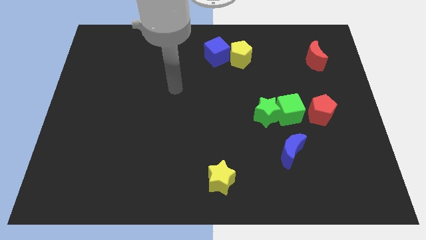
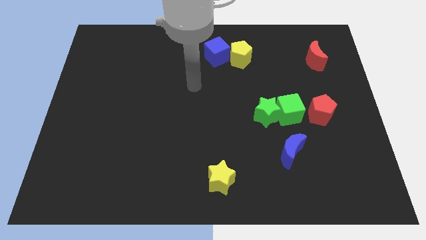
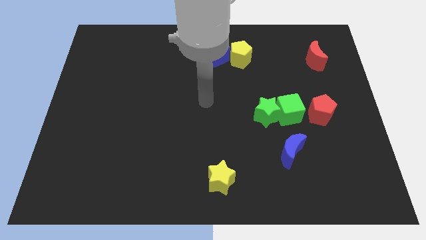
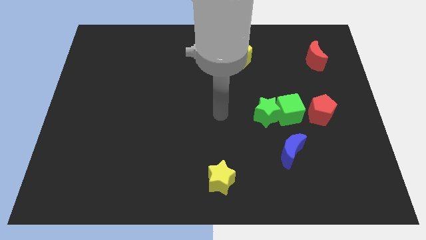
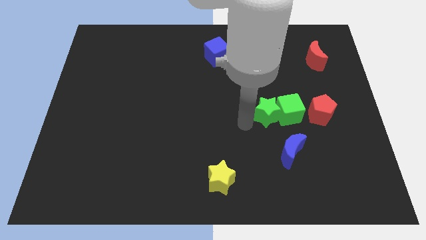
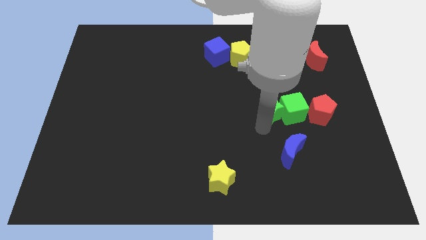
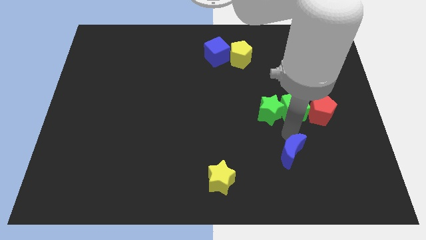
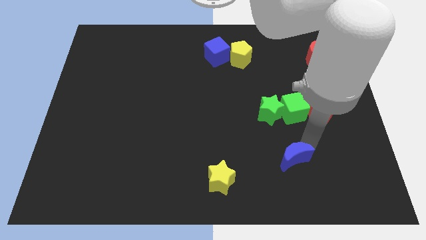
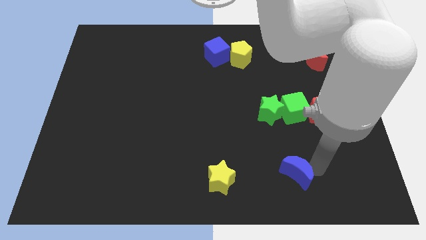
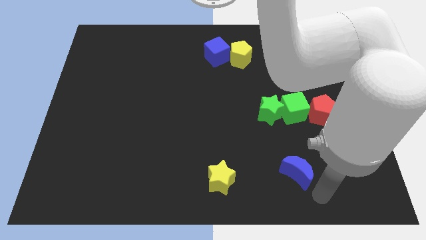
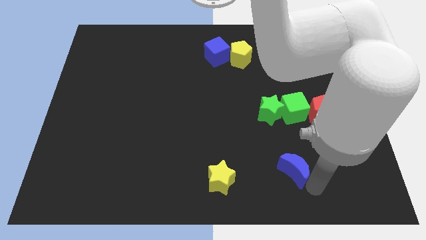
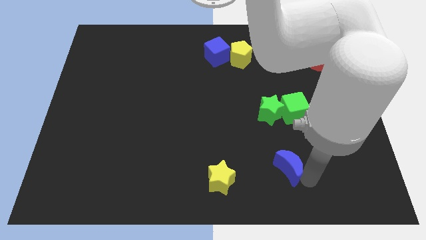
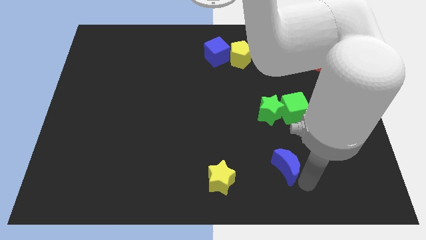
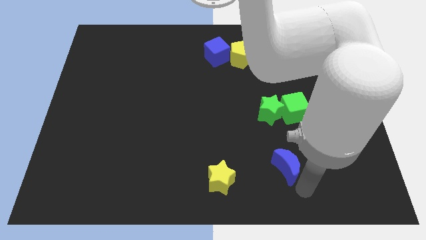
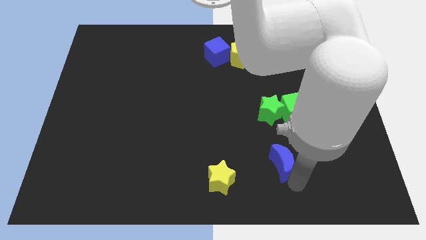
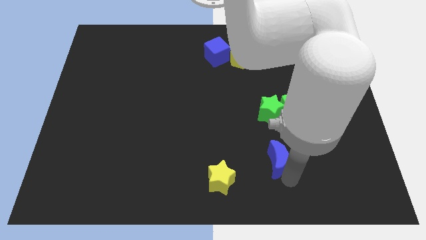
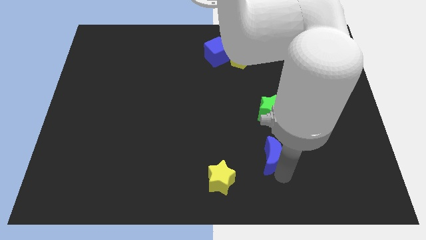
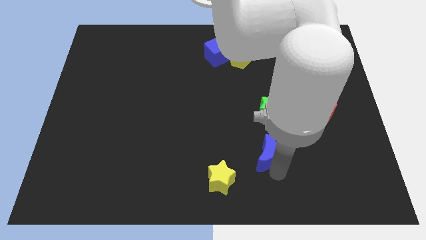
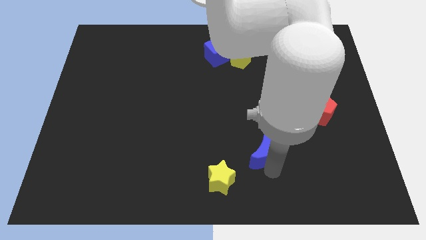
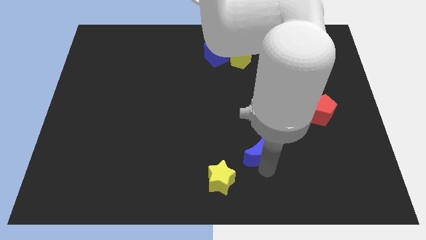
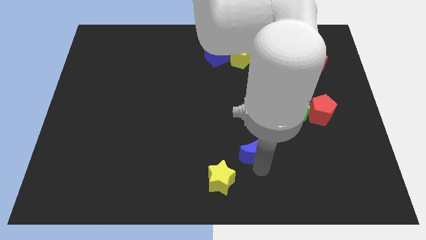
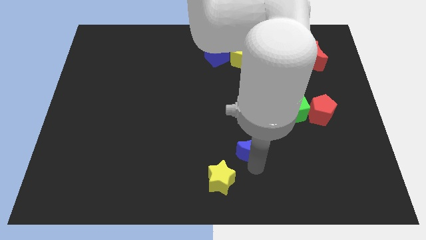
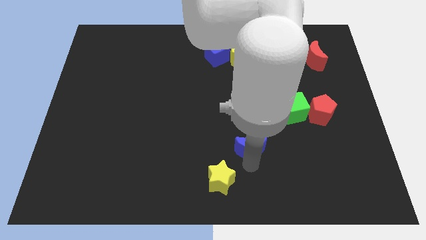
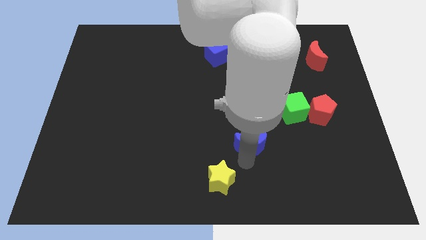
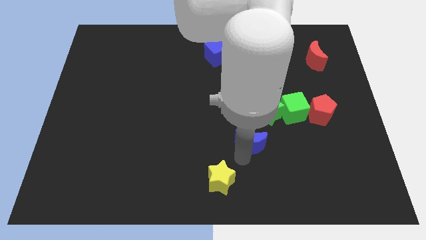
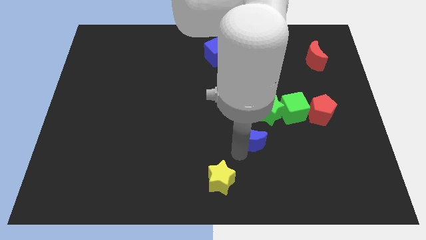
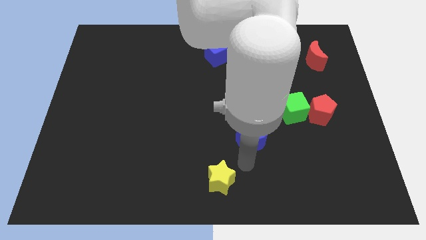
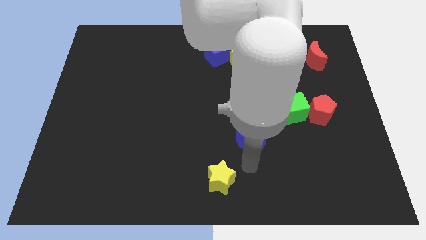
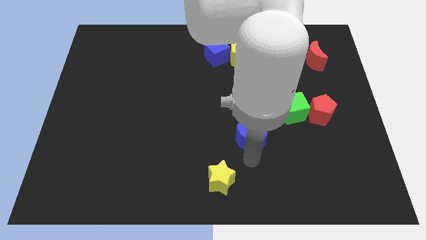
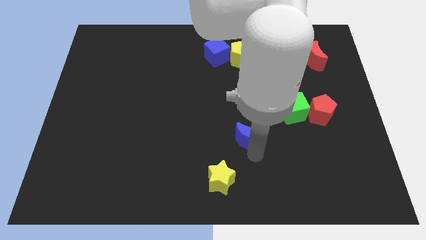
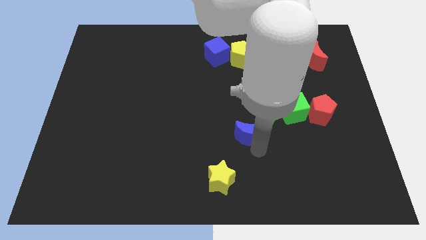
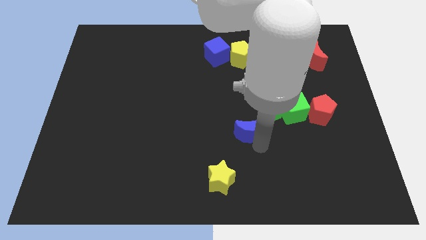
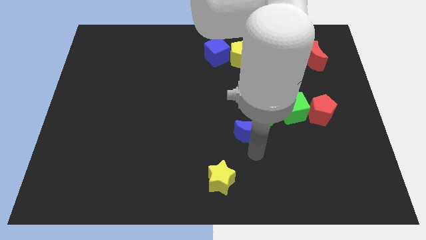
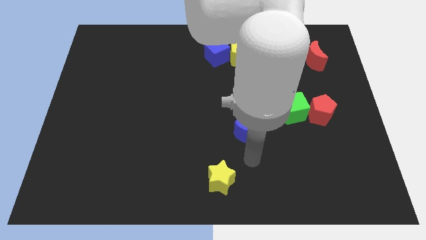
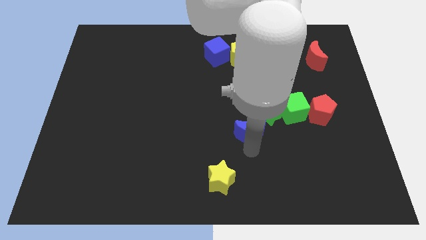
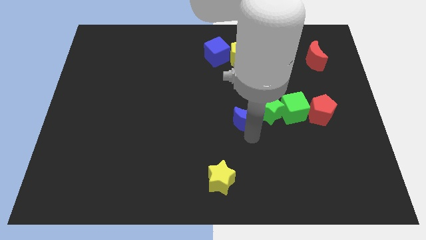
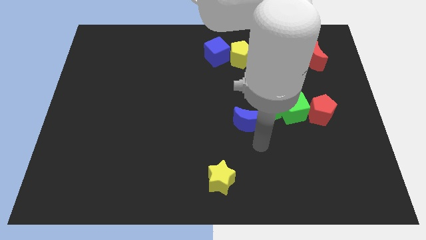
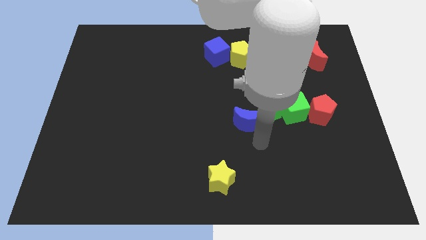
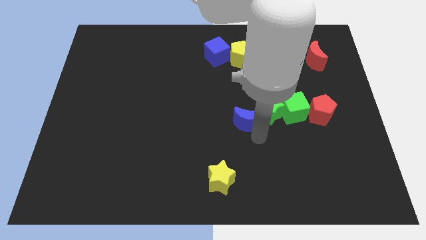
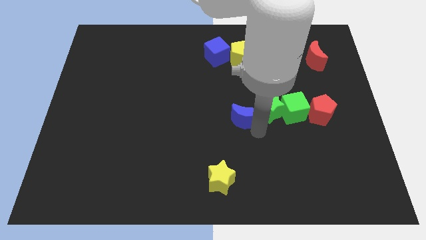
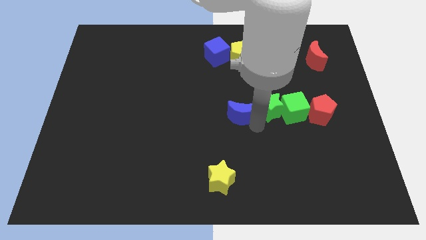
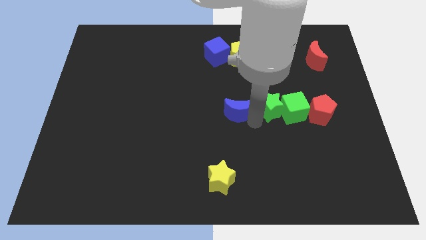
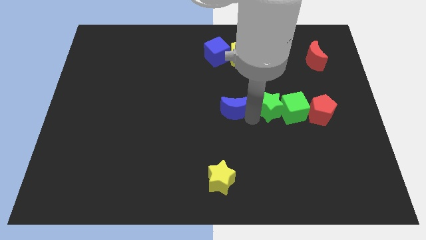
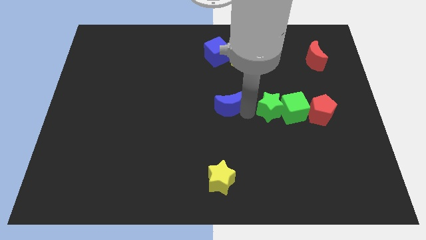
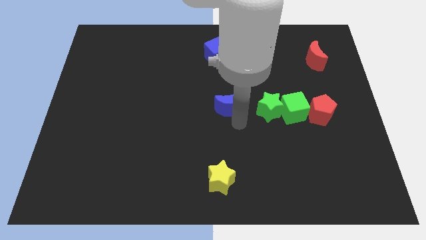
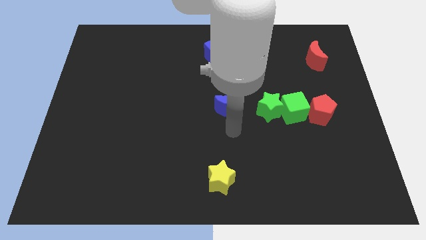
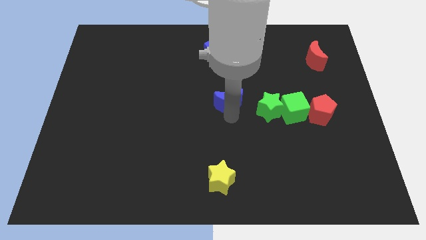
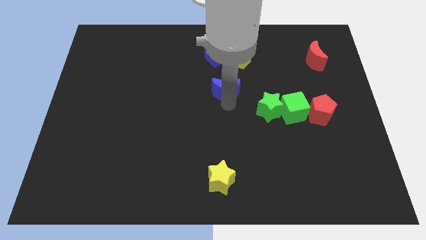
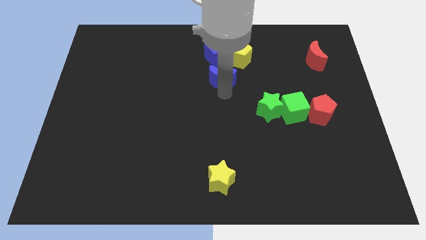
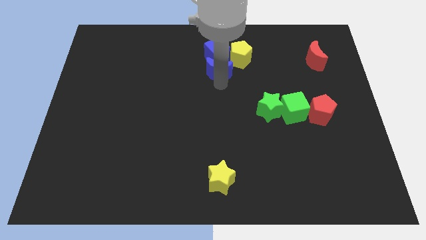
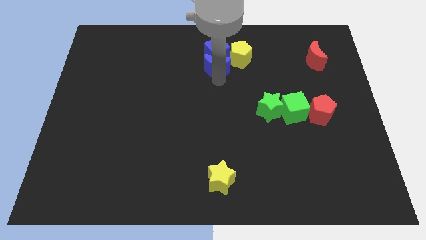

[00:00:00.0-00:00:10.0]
put the blue moon towards the blue cube

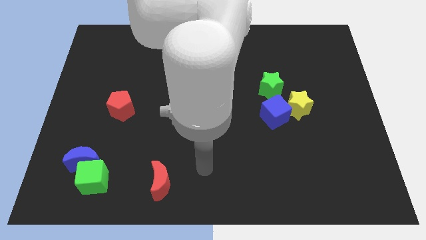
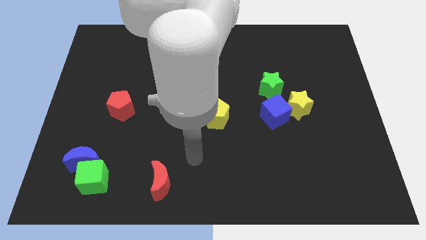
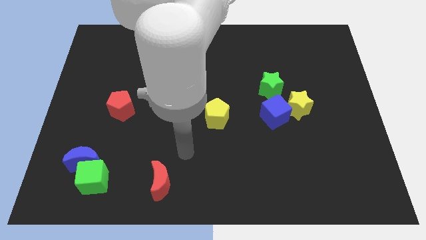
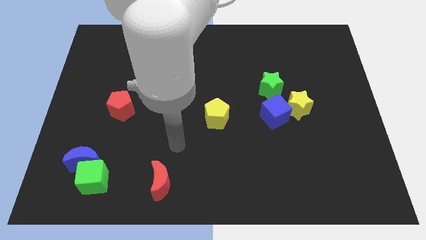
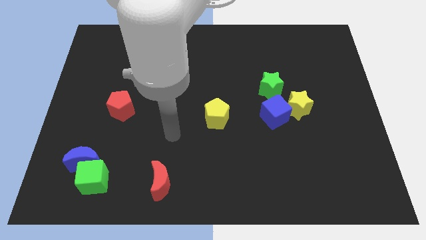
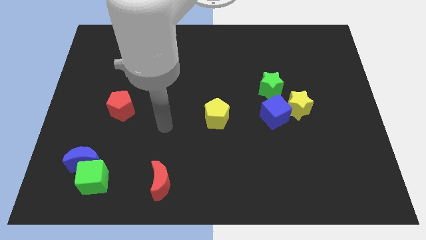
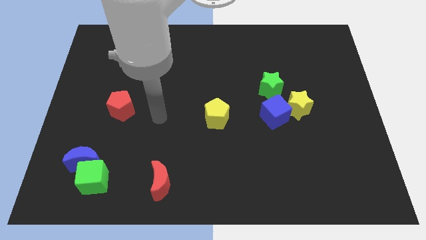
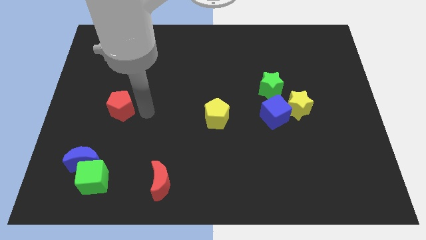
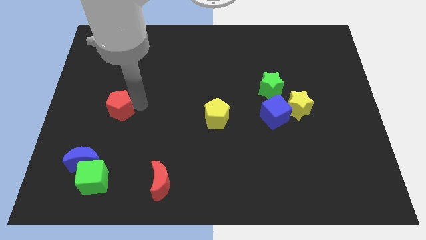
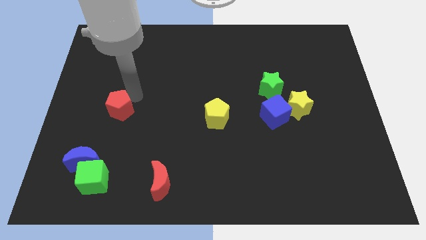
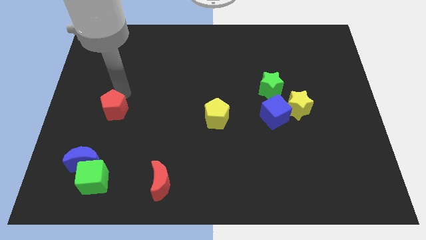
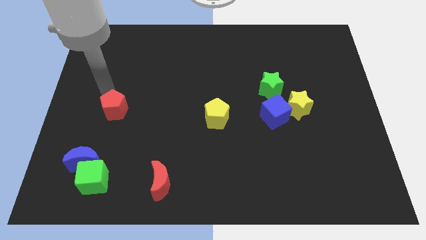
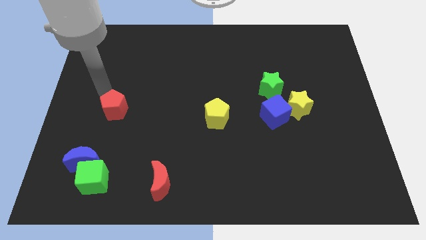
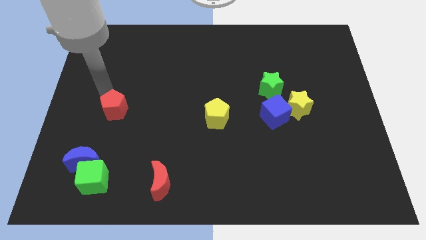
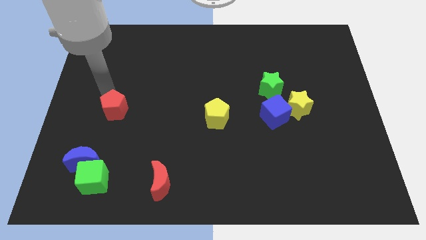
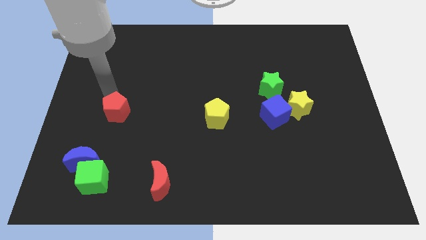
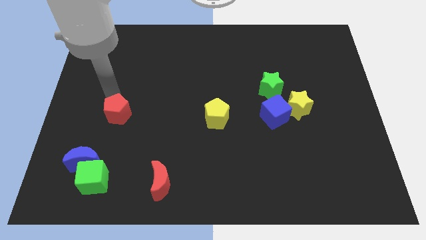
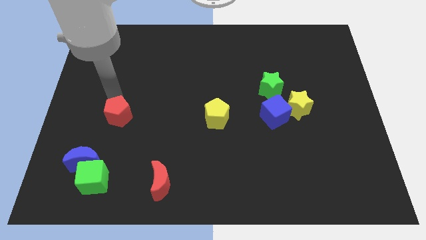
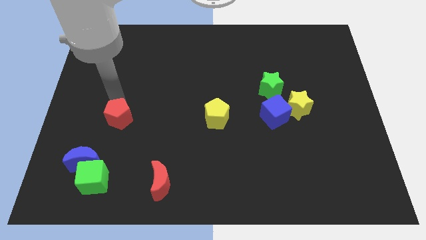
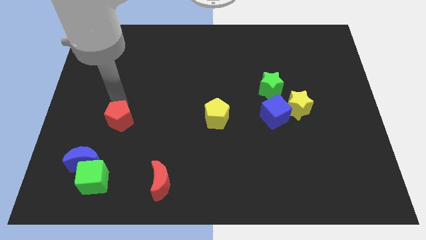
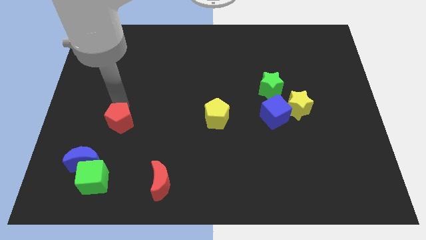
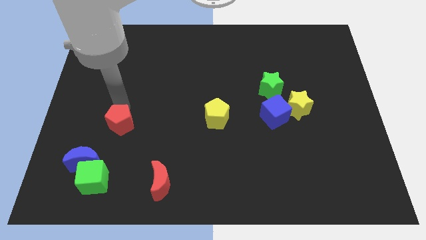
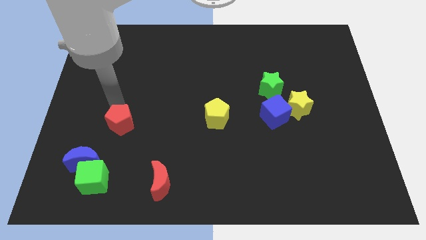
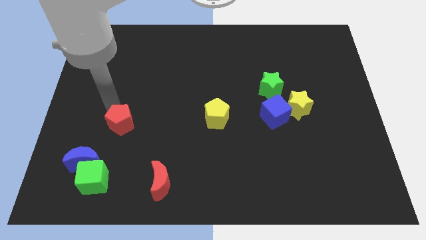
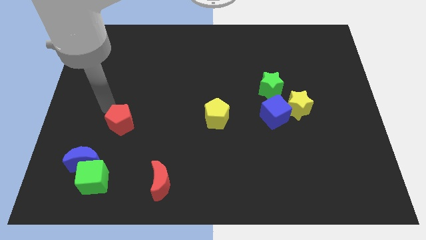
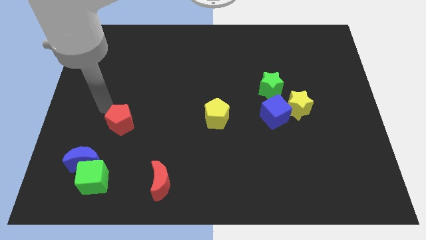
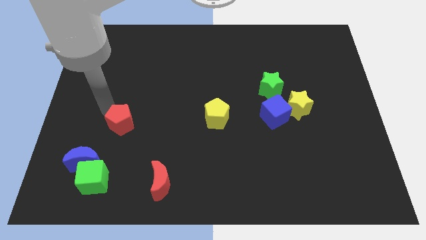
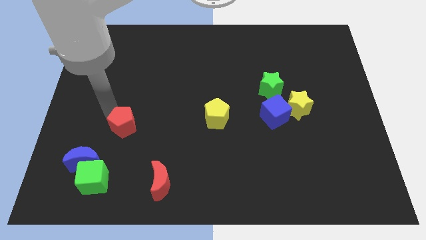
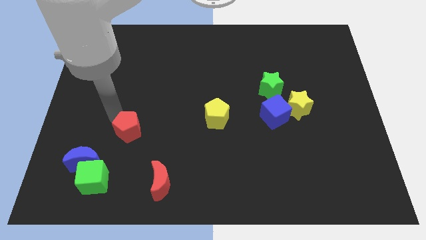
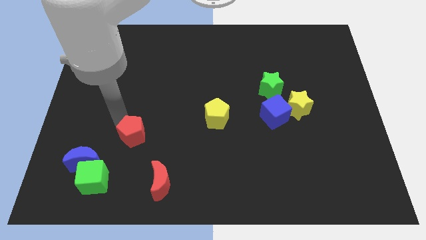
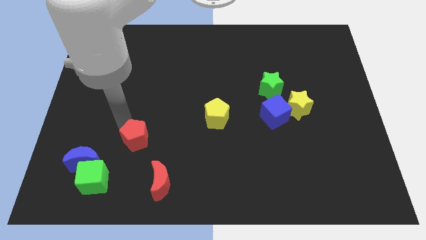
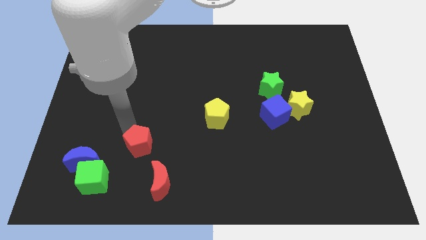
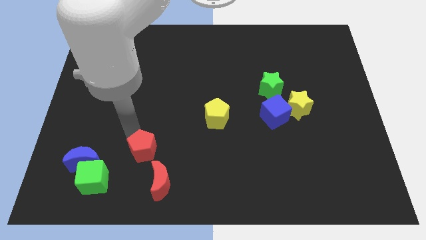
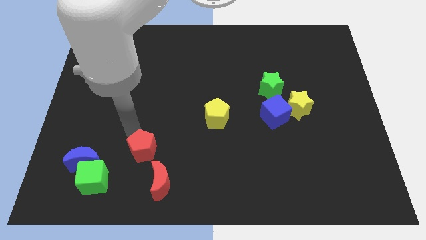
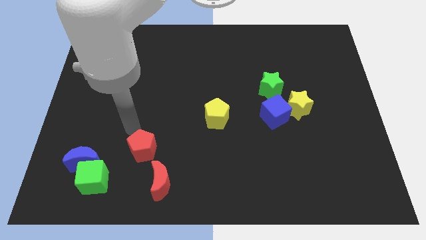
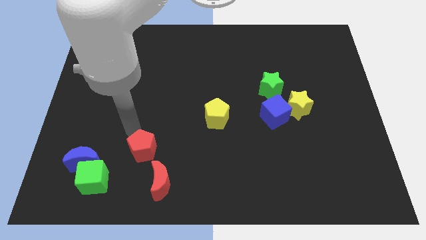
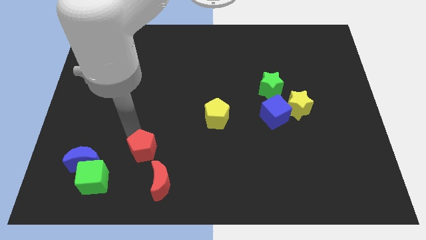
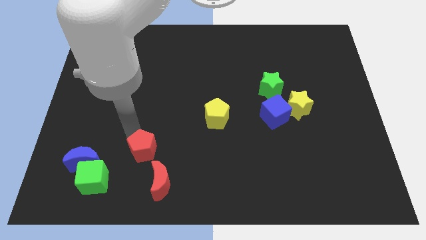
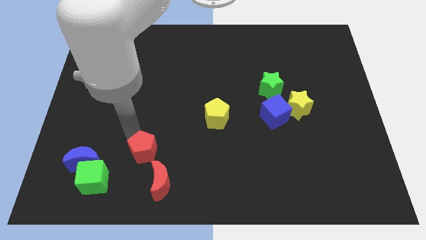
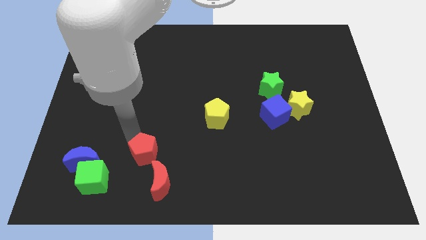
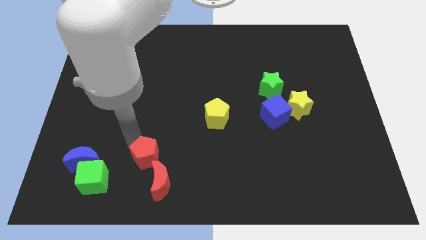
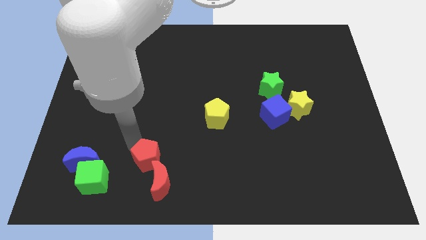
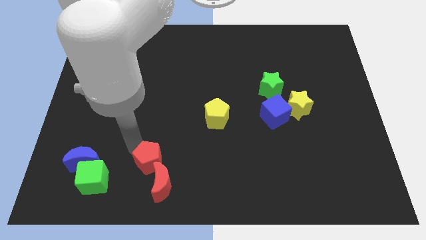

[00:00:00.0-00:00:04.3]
push the red pentagon to the red moon
